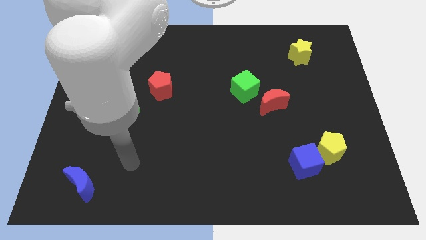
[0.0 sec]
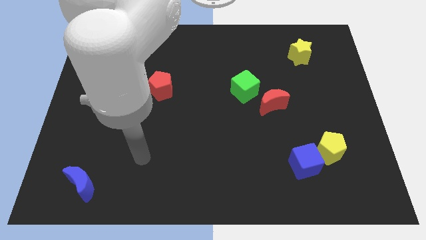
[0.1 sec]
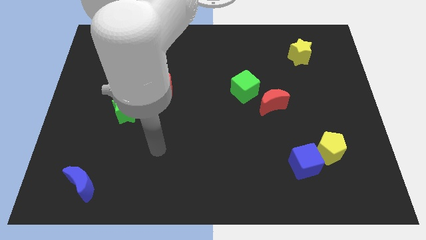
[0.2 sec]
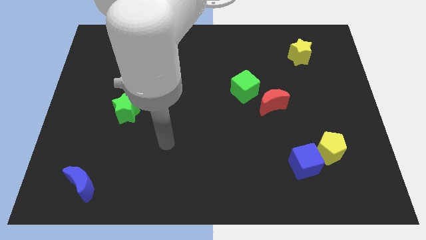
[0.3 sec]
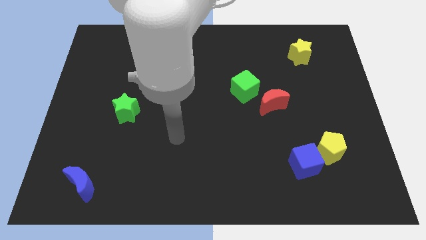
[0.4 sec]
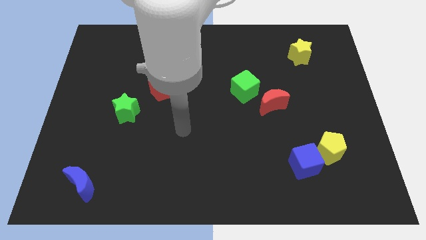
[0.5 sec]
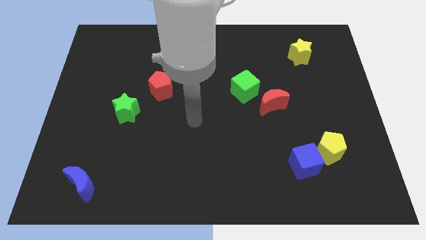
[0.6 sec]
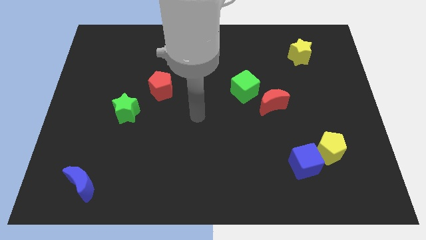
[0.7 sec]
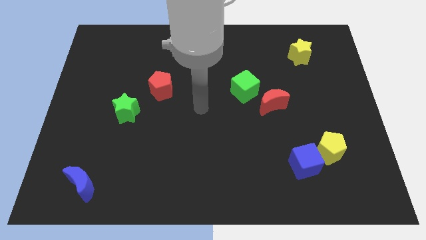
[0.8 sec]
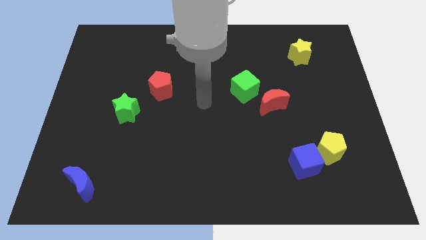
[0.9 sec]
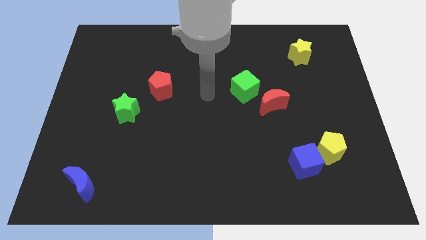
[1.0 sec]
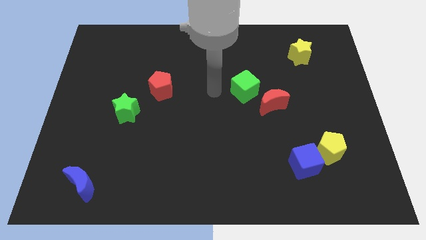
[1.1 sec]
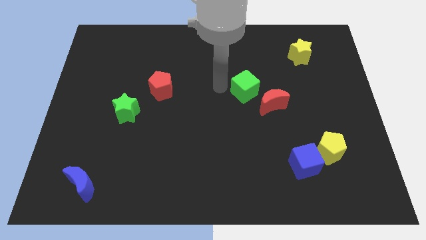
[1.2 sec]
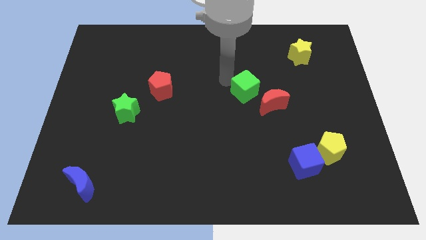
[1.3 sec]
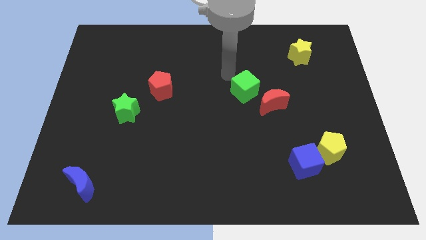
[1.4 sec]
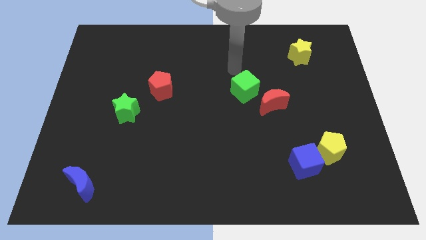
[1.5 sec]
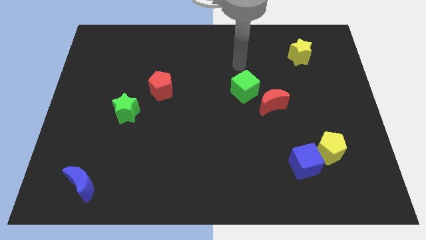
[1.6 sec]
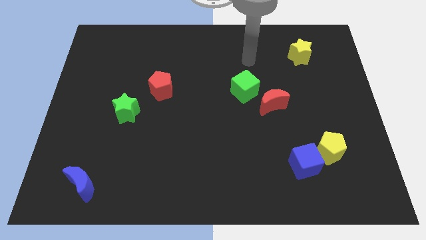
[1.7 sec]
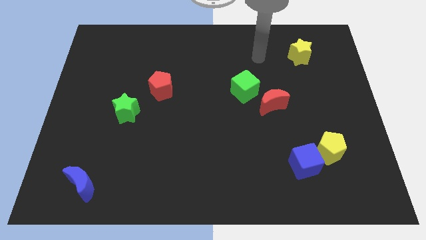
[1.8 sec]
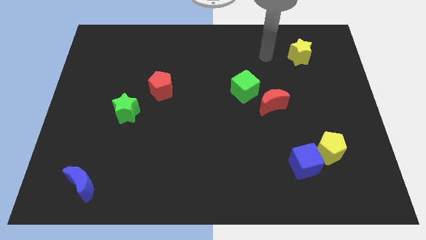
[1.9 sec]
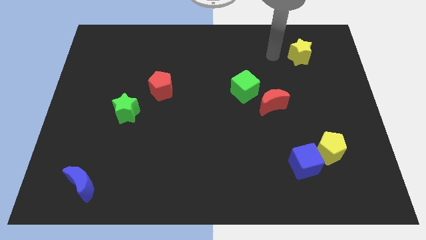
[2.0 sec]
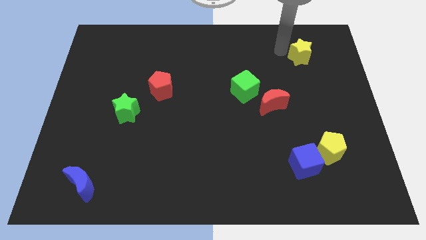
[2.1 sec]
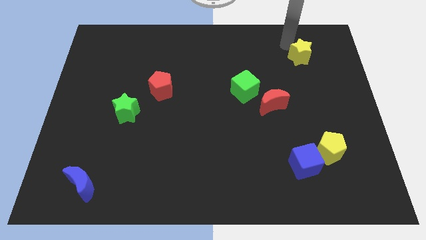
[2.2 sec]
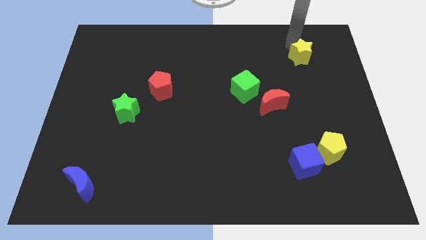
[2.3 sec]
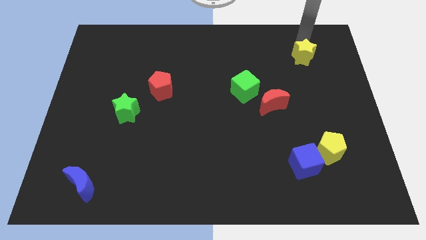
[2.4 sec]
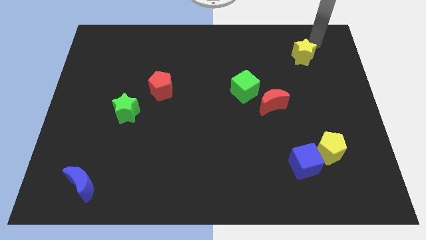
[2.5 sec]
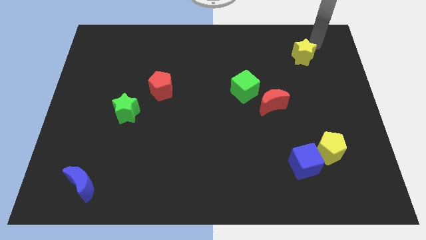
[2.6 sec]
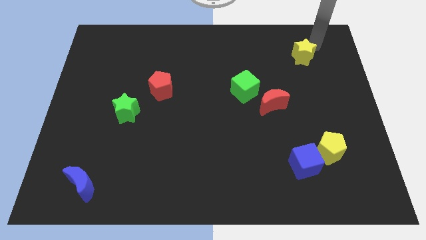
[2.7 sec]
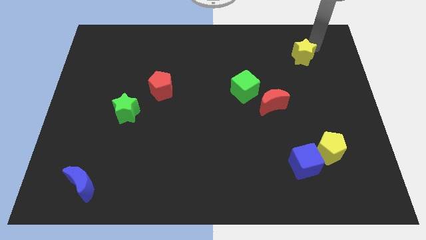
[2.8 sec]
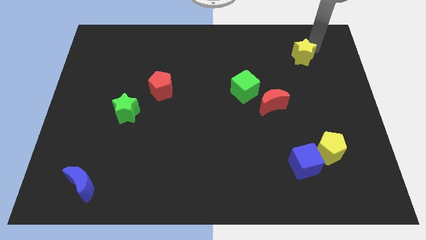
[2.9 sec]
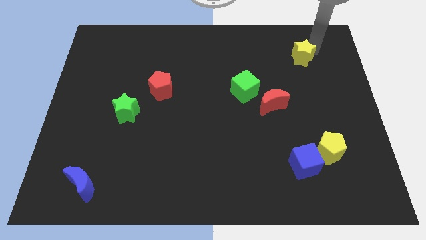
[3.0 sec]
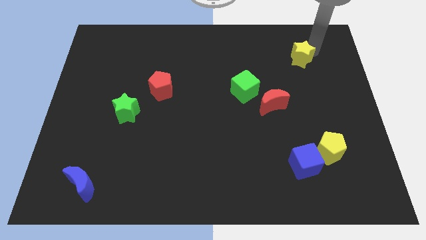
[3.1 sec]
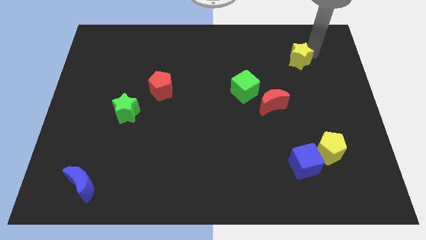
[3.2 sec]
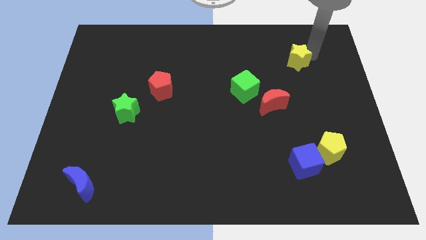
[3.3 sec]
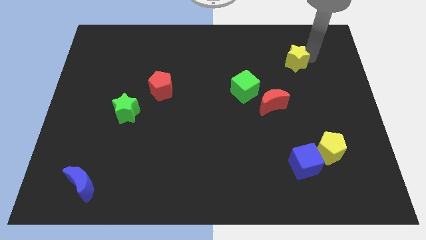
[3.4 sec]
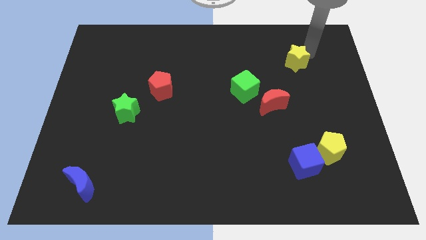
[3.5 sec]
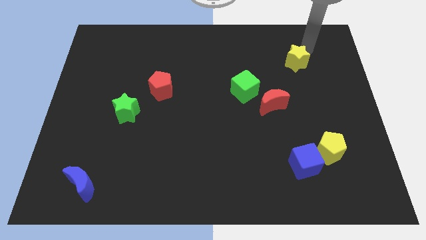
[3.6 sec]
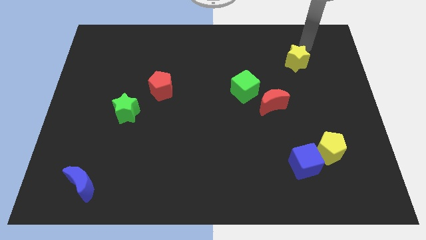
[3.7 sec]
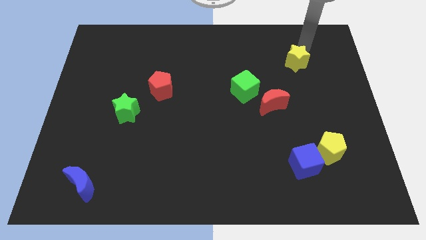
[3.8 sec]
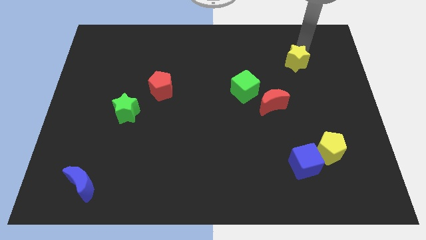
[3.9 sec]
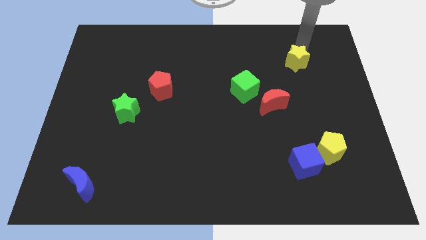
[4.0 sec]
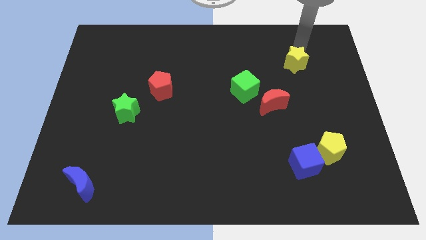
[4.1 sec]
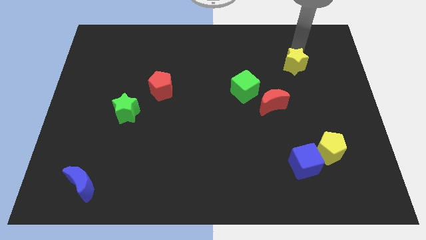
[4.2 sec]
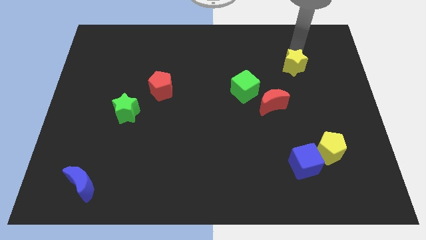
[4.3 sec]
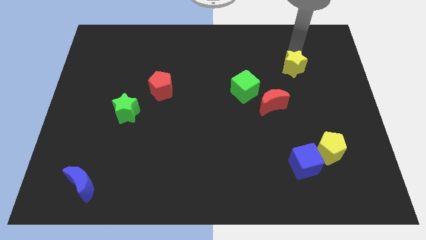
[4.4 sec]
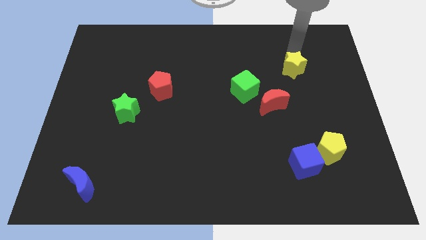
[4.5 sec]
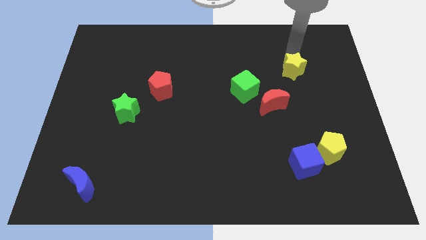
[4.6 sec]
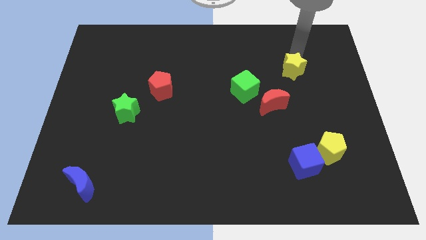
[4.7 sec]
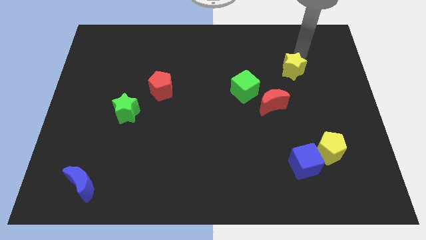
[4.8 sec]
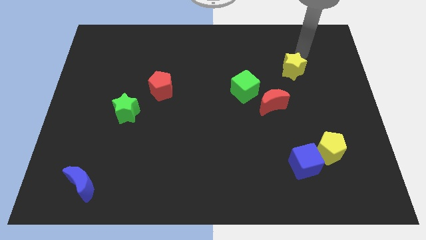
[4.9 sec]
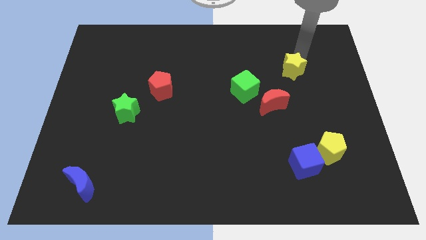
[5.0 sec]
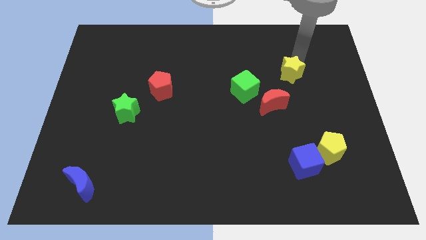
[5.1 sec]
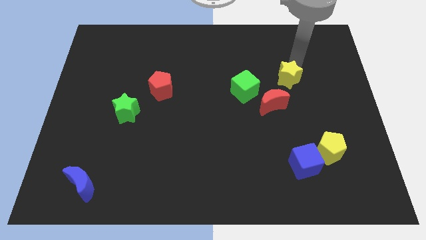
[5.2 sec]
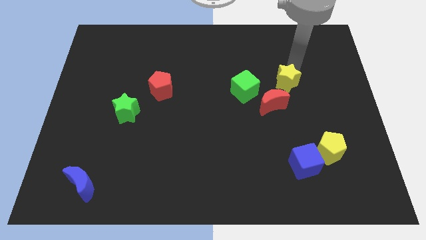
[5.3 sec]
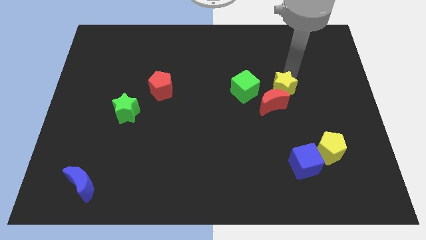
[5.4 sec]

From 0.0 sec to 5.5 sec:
push the yellow star close to the red moon

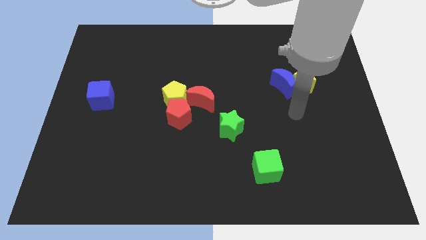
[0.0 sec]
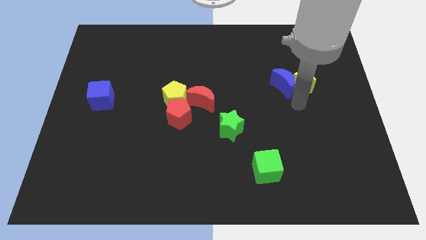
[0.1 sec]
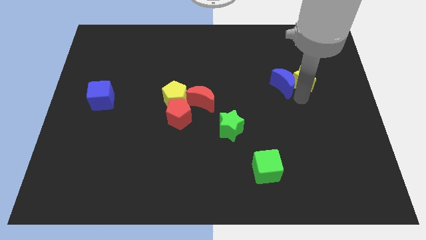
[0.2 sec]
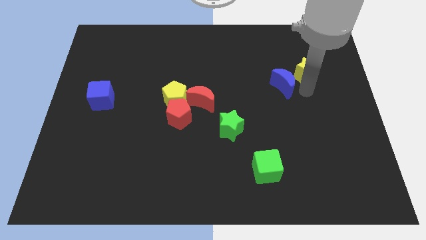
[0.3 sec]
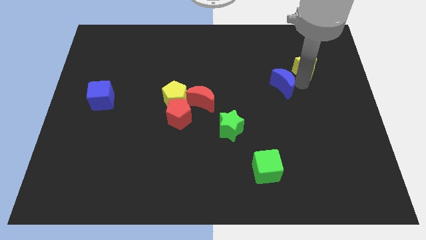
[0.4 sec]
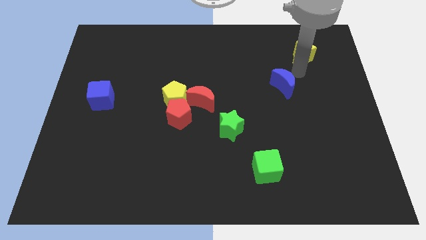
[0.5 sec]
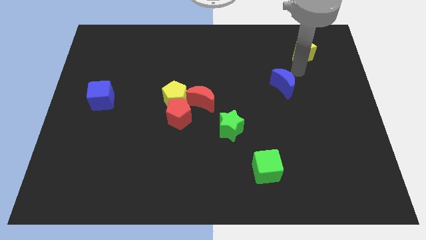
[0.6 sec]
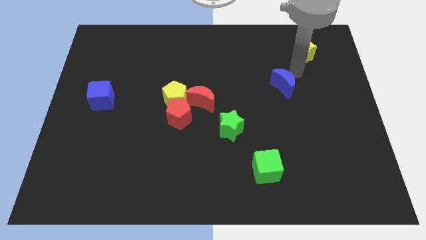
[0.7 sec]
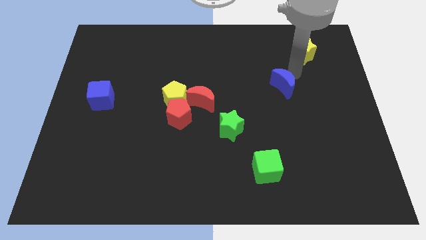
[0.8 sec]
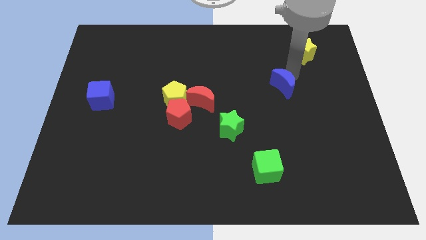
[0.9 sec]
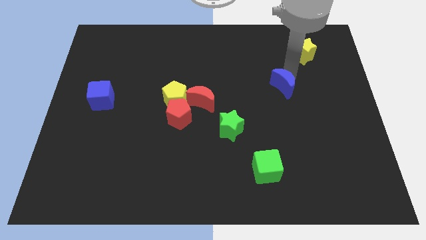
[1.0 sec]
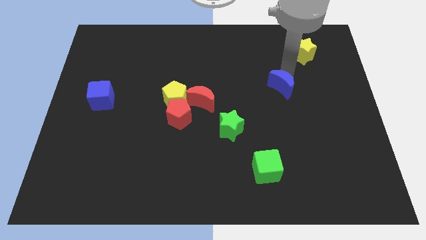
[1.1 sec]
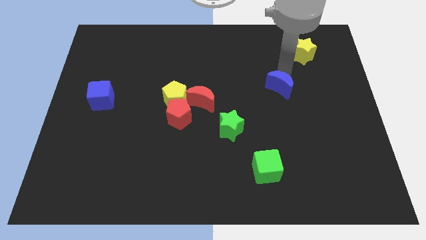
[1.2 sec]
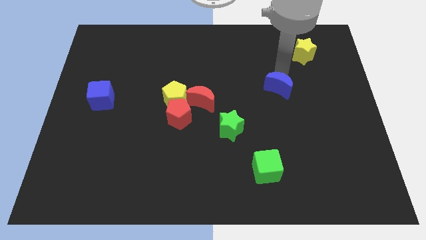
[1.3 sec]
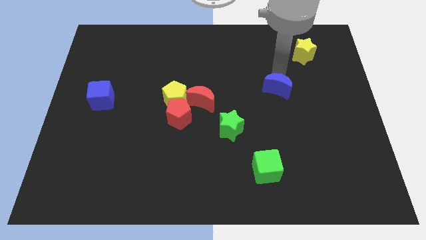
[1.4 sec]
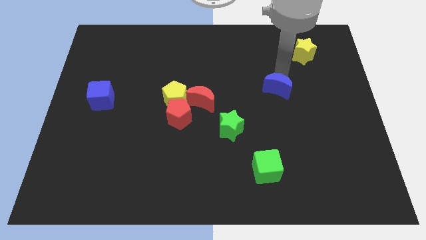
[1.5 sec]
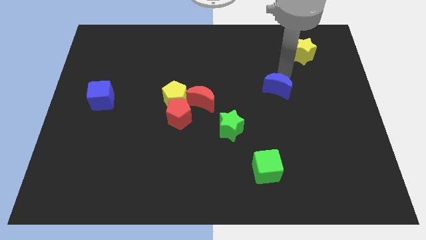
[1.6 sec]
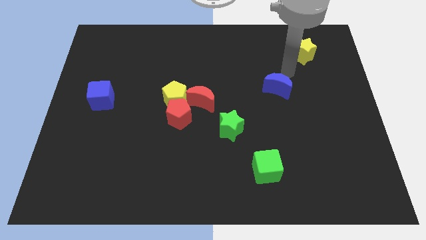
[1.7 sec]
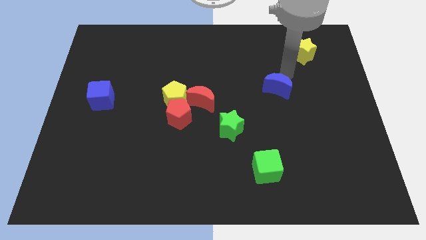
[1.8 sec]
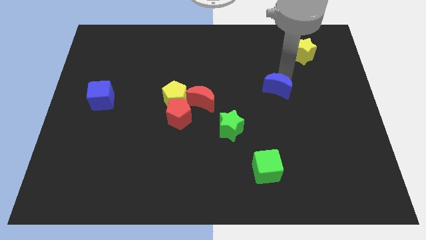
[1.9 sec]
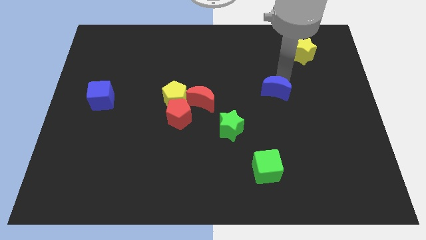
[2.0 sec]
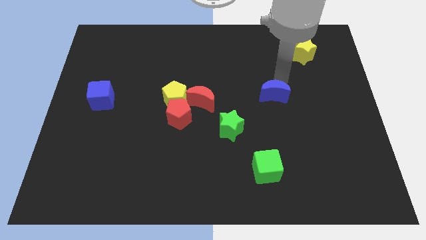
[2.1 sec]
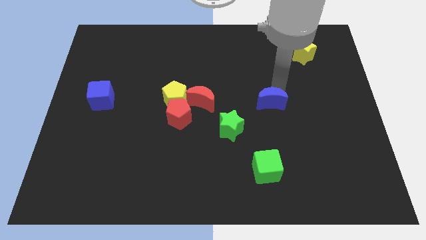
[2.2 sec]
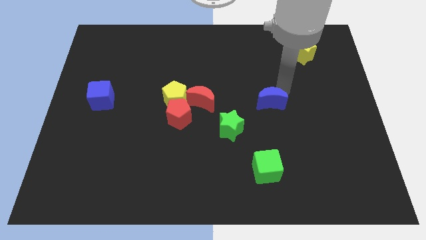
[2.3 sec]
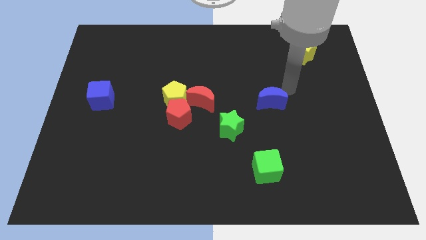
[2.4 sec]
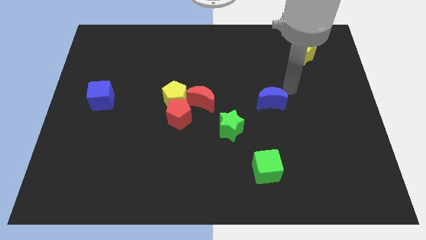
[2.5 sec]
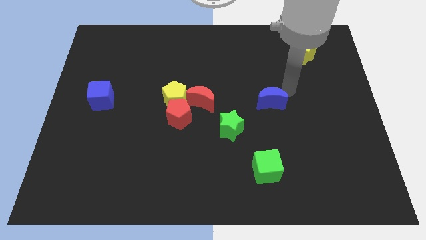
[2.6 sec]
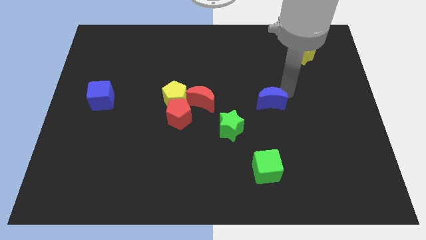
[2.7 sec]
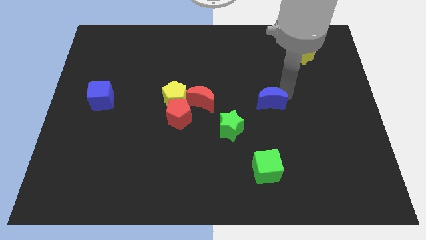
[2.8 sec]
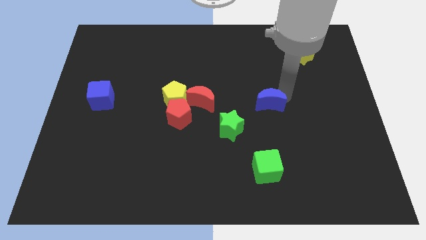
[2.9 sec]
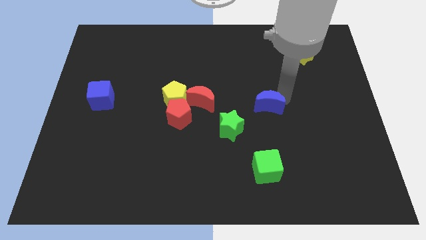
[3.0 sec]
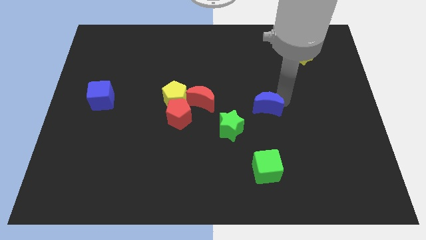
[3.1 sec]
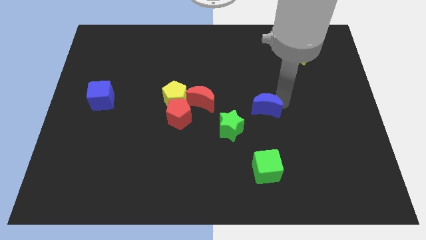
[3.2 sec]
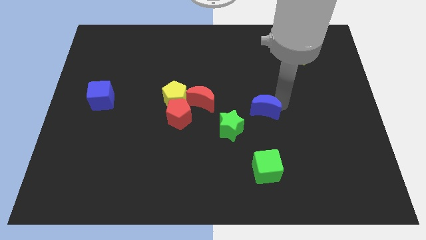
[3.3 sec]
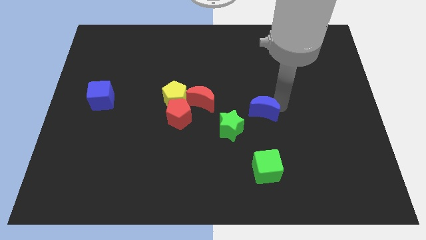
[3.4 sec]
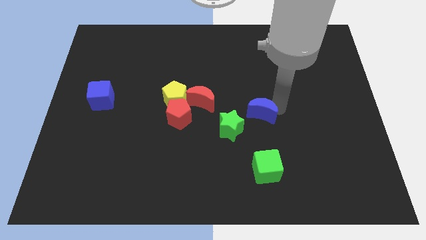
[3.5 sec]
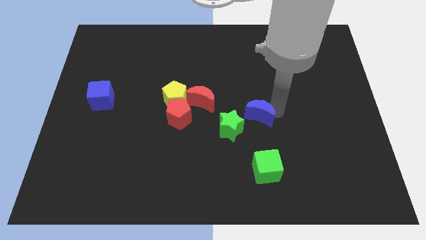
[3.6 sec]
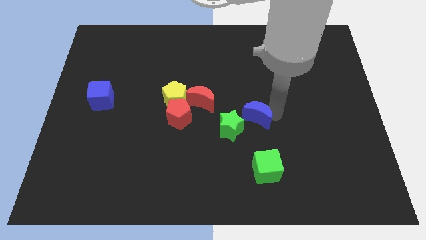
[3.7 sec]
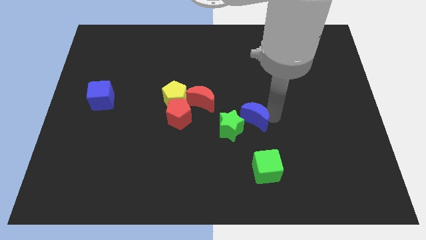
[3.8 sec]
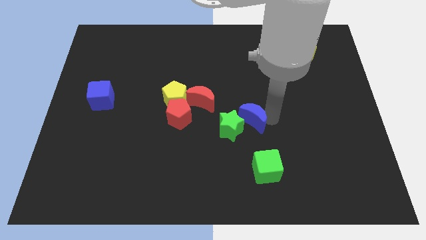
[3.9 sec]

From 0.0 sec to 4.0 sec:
put the blue moon next to the green star
